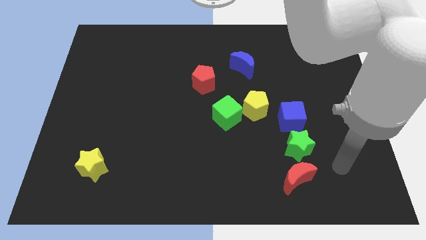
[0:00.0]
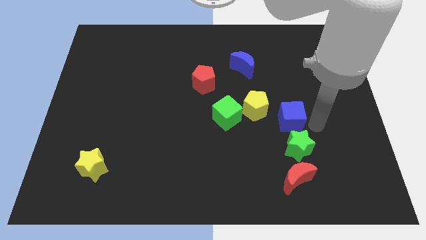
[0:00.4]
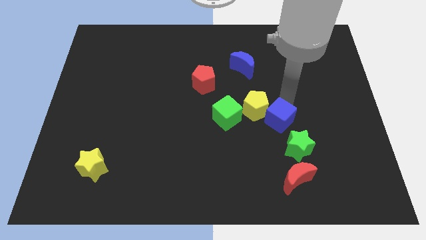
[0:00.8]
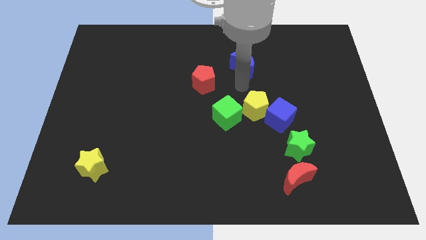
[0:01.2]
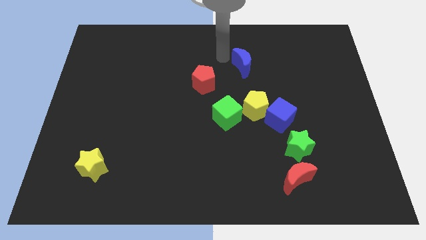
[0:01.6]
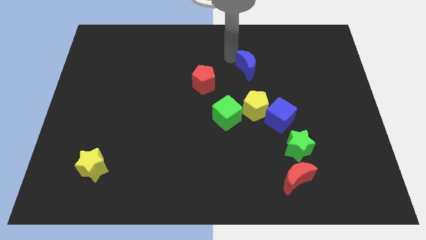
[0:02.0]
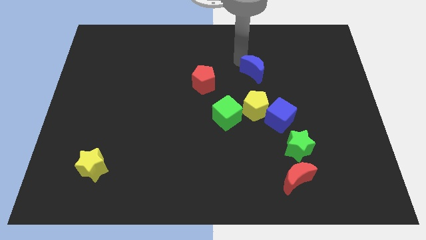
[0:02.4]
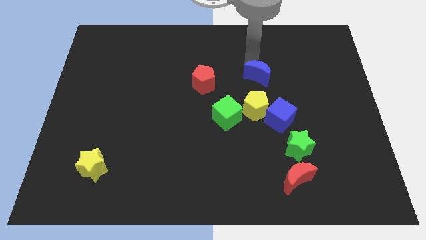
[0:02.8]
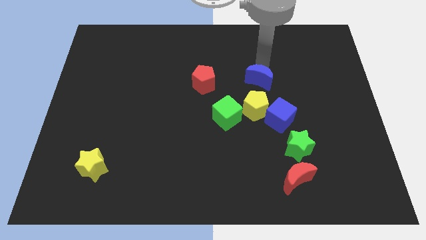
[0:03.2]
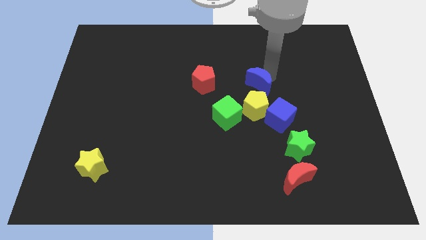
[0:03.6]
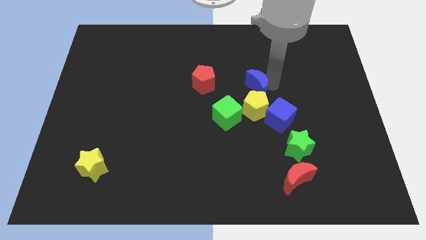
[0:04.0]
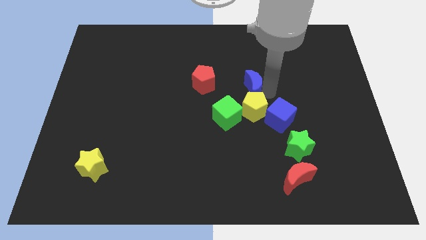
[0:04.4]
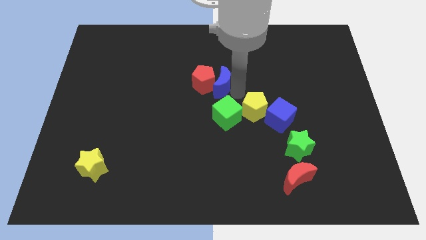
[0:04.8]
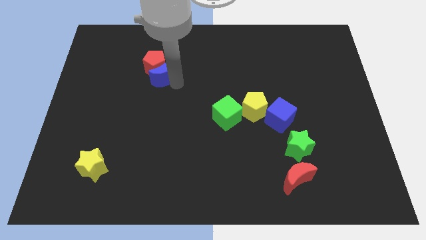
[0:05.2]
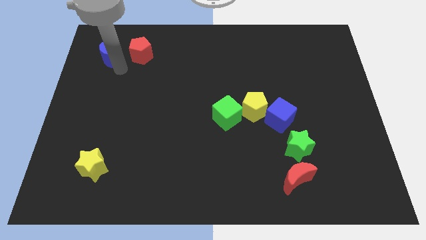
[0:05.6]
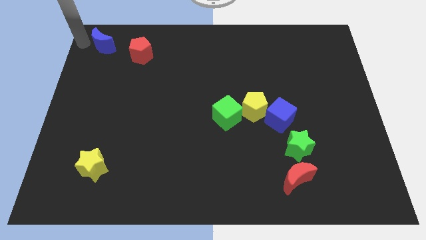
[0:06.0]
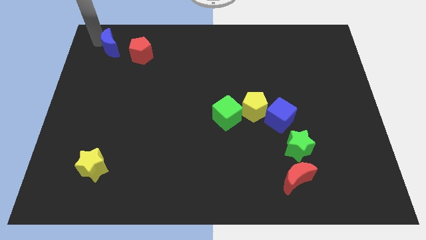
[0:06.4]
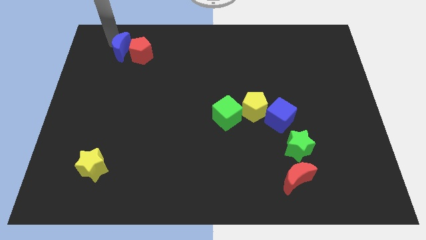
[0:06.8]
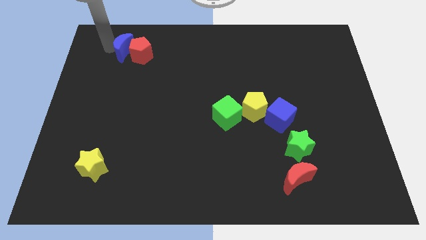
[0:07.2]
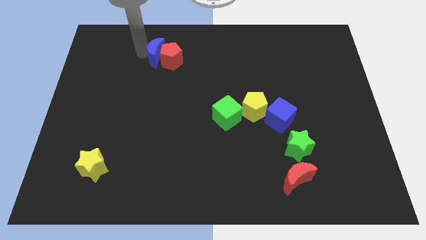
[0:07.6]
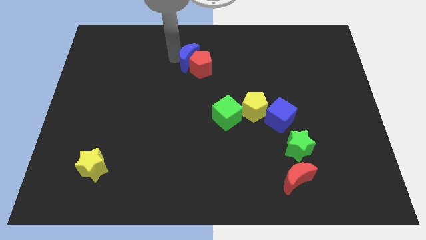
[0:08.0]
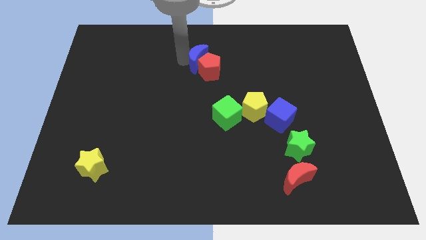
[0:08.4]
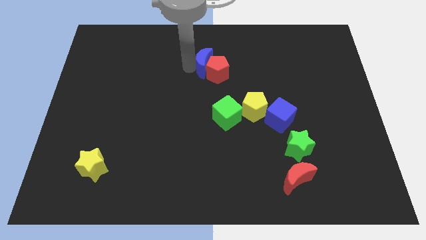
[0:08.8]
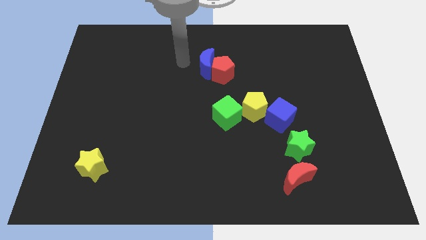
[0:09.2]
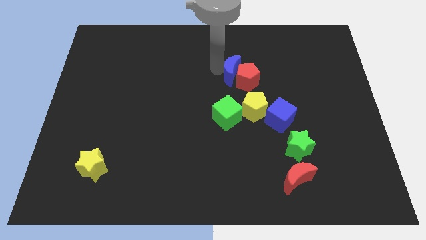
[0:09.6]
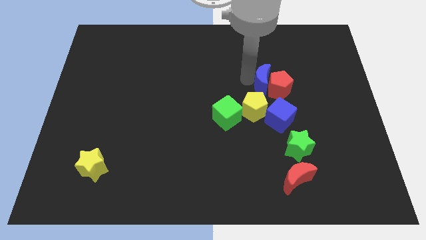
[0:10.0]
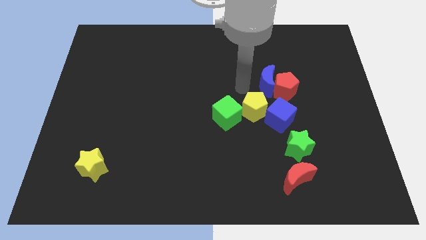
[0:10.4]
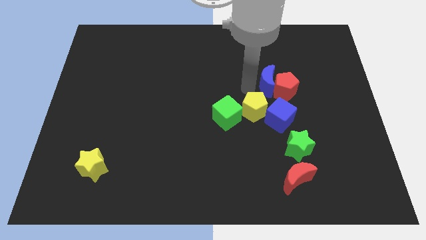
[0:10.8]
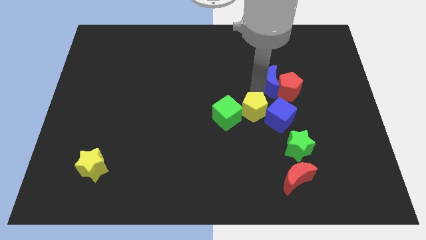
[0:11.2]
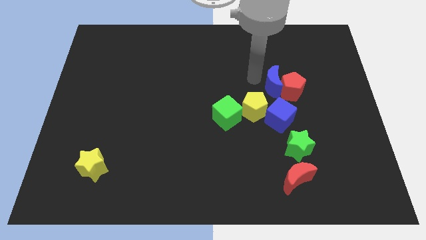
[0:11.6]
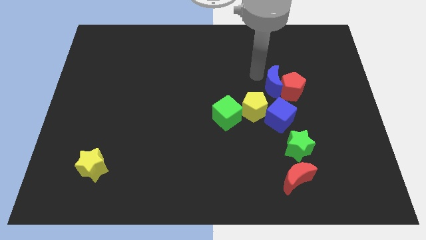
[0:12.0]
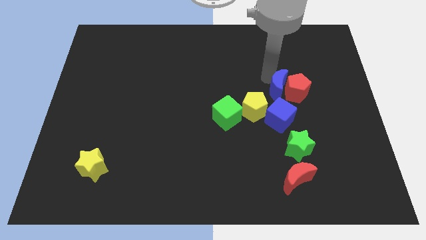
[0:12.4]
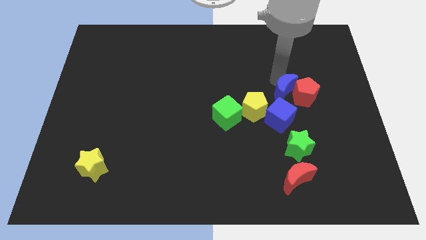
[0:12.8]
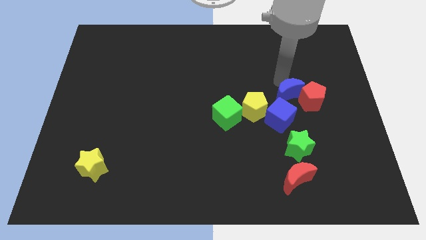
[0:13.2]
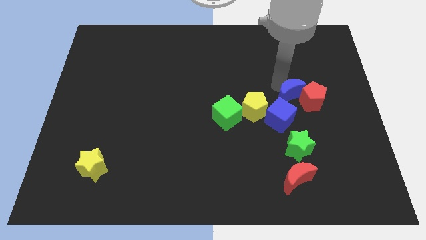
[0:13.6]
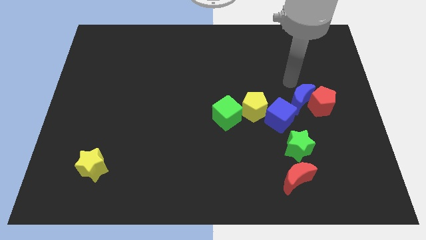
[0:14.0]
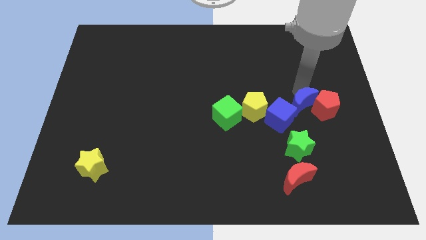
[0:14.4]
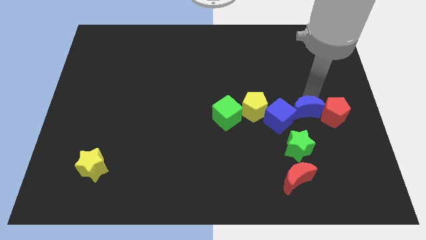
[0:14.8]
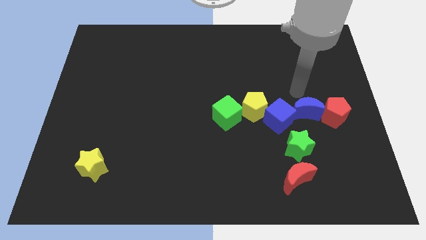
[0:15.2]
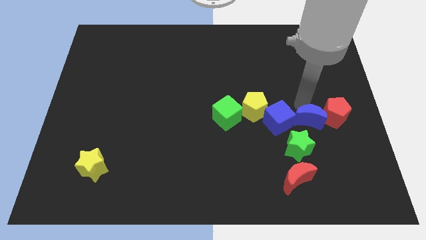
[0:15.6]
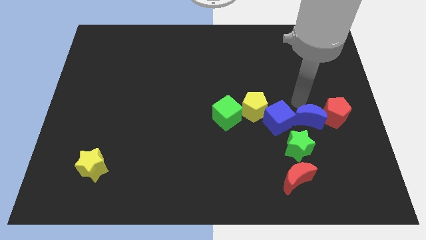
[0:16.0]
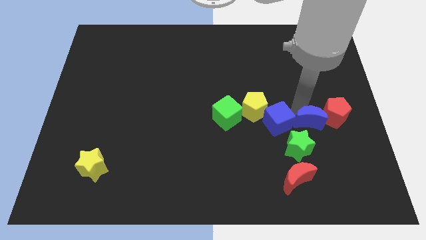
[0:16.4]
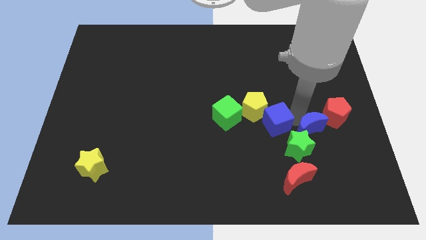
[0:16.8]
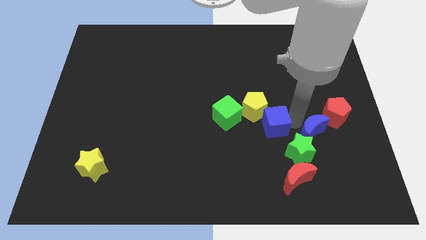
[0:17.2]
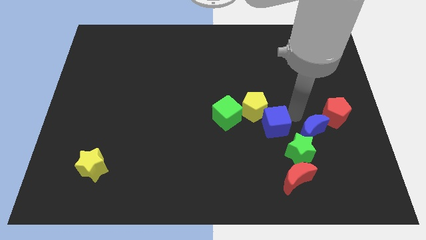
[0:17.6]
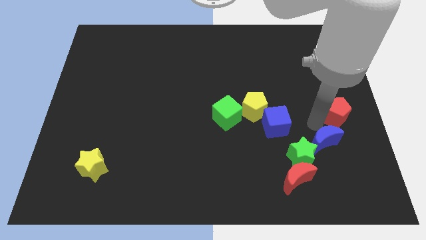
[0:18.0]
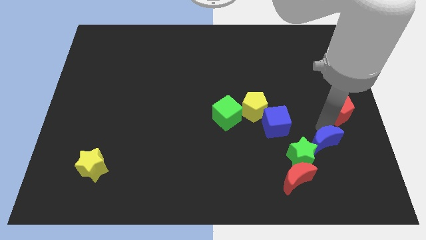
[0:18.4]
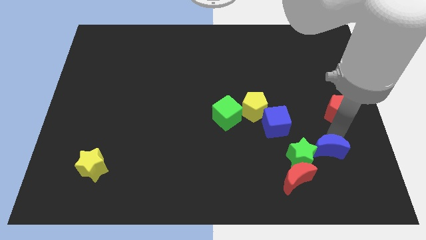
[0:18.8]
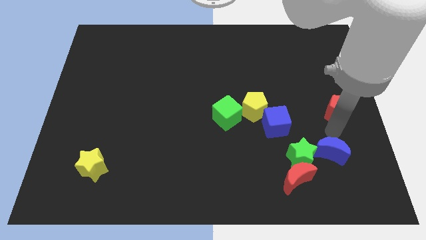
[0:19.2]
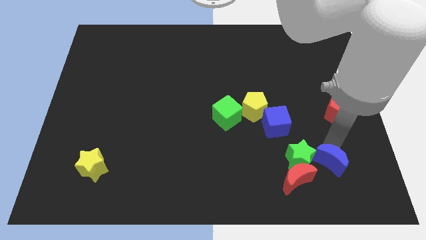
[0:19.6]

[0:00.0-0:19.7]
put the blue moon diagonally down and to the right of the green star

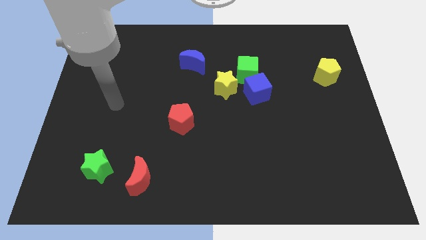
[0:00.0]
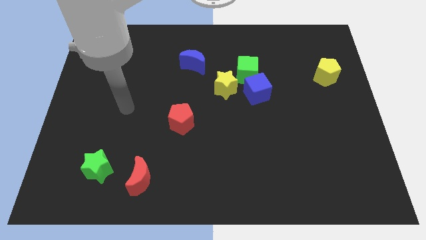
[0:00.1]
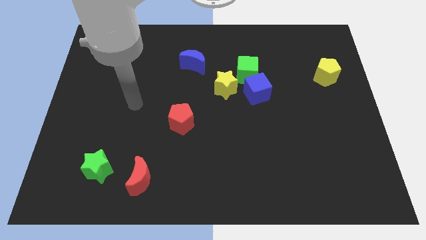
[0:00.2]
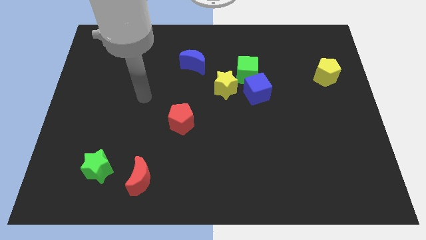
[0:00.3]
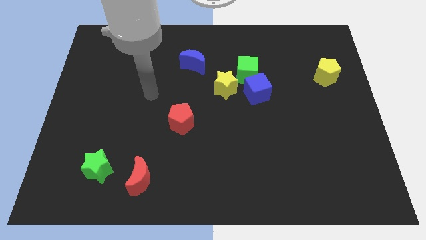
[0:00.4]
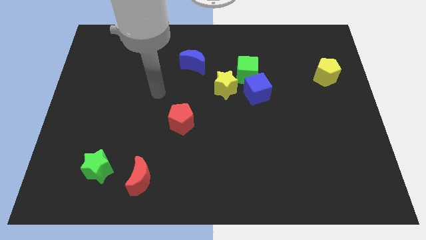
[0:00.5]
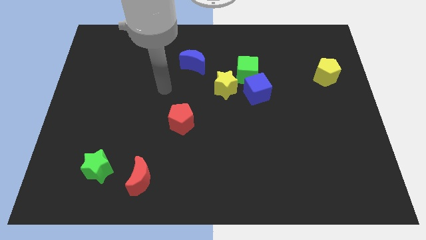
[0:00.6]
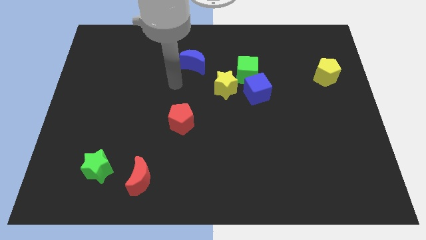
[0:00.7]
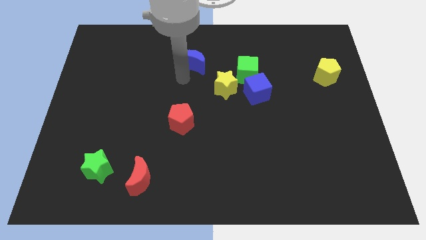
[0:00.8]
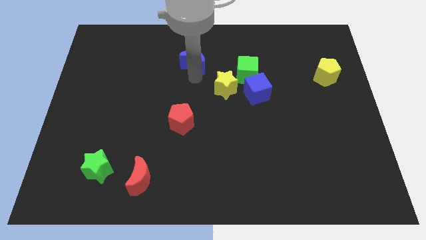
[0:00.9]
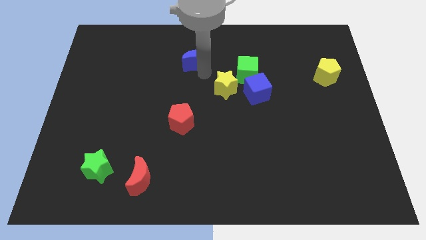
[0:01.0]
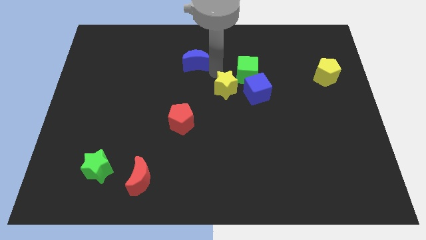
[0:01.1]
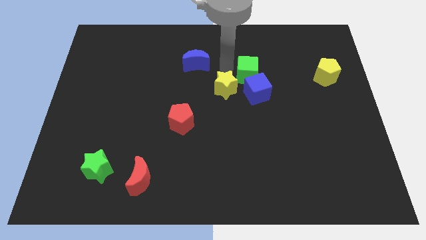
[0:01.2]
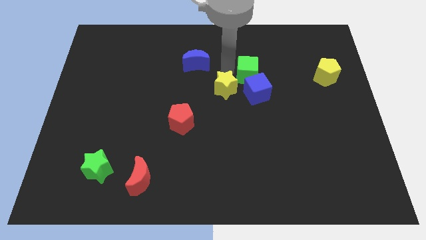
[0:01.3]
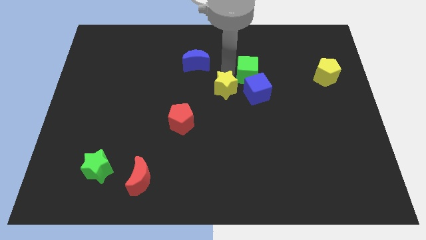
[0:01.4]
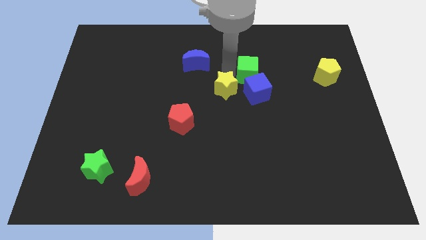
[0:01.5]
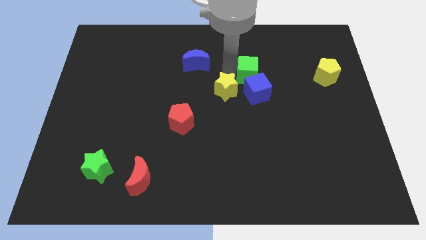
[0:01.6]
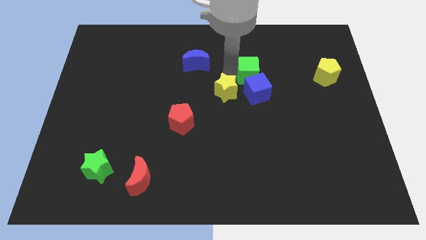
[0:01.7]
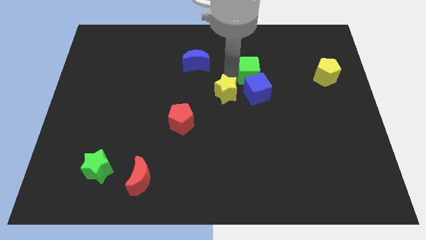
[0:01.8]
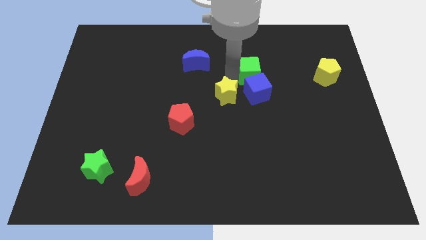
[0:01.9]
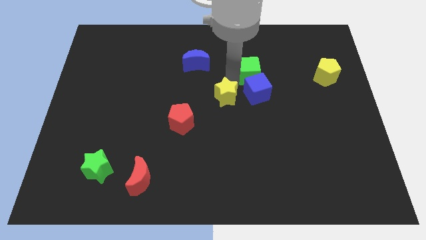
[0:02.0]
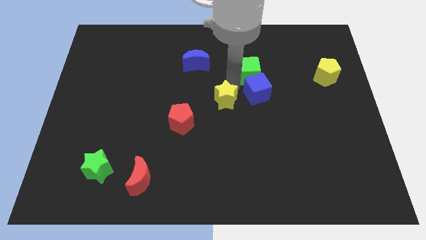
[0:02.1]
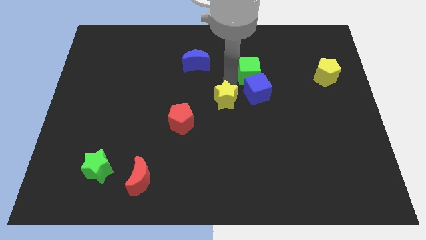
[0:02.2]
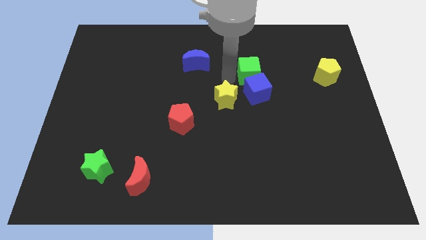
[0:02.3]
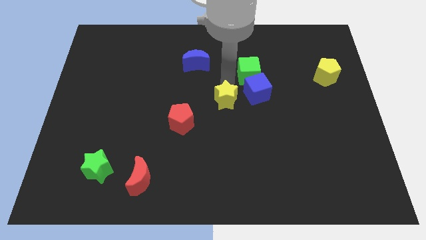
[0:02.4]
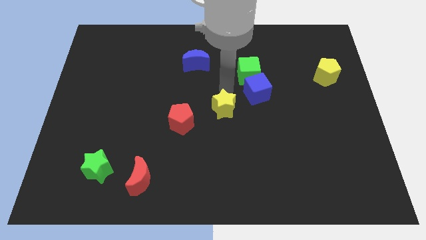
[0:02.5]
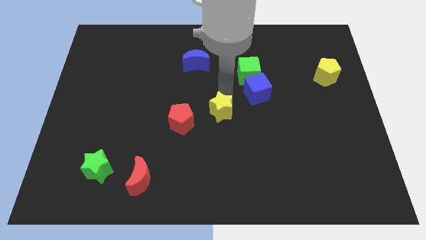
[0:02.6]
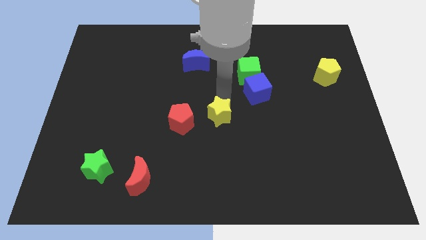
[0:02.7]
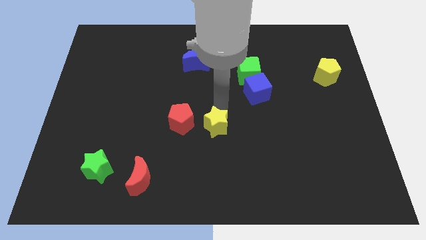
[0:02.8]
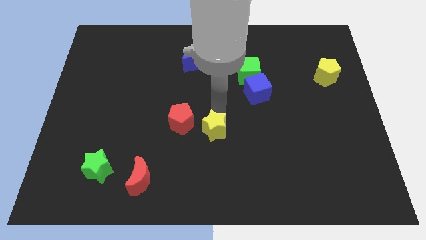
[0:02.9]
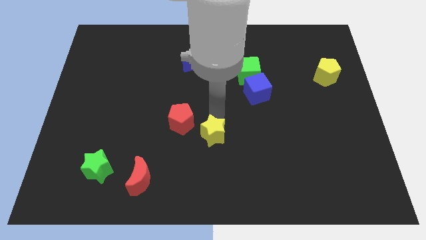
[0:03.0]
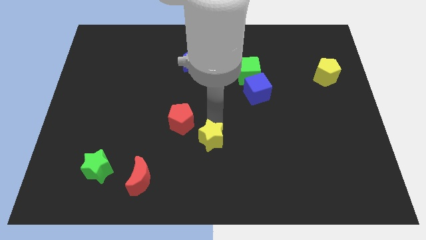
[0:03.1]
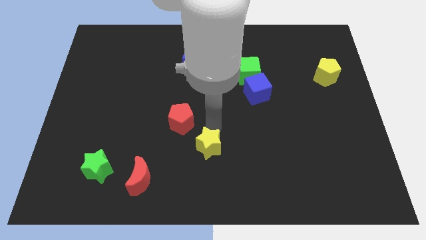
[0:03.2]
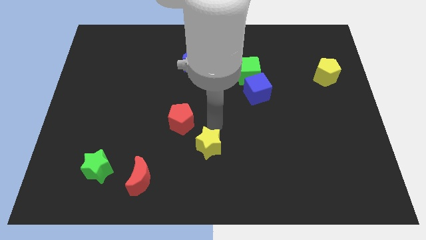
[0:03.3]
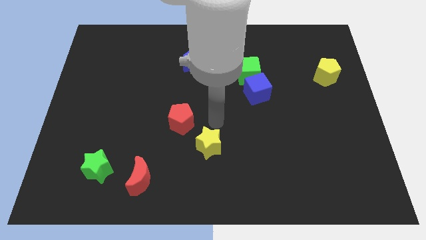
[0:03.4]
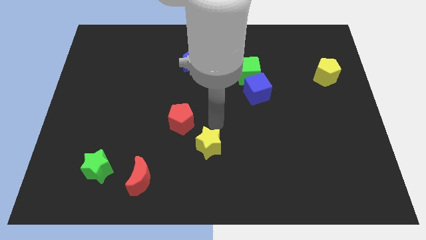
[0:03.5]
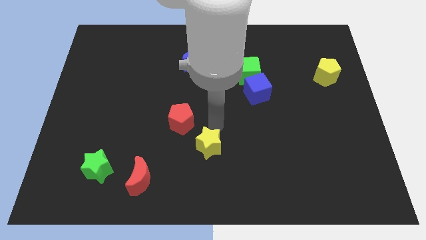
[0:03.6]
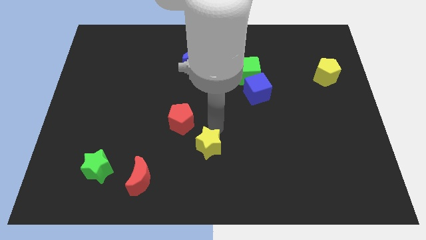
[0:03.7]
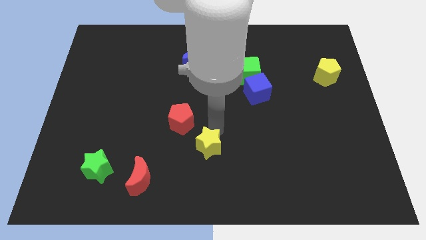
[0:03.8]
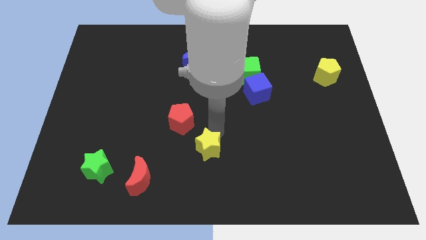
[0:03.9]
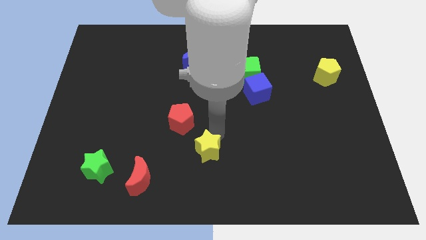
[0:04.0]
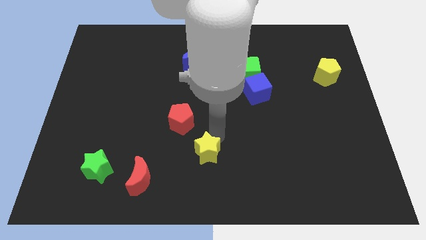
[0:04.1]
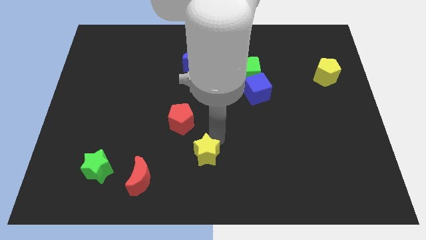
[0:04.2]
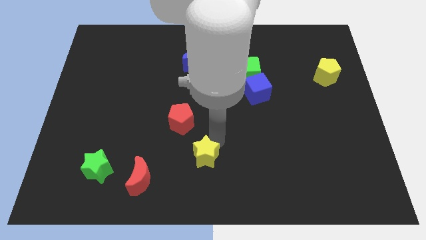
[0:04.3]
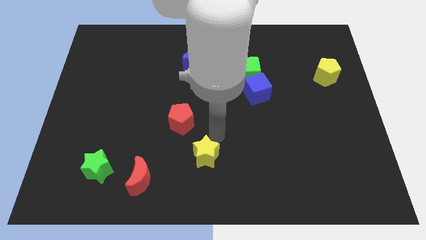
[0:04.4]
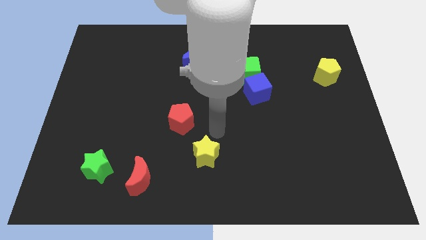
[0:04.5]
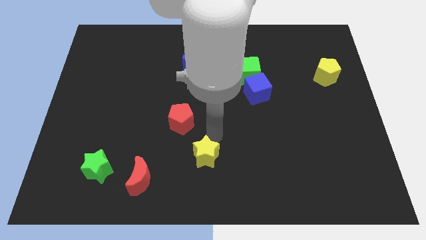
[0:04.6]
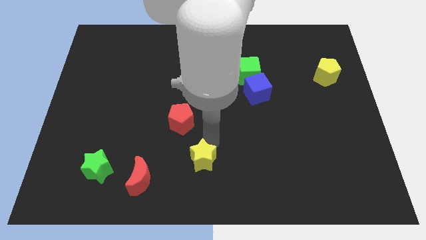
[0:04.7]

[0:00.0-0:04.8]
put the yellow star just right of the red moon
